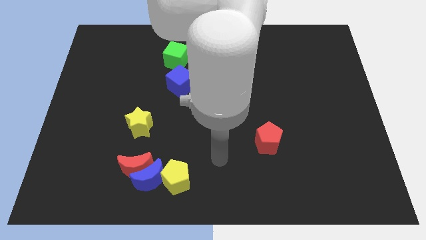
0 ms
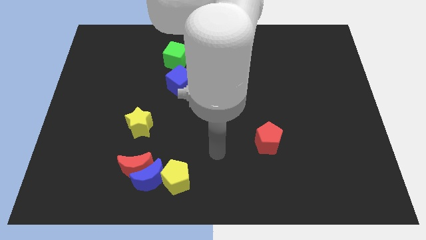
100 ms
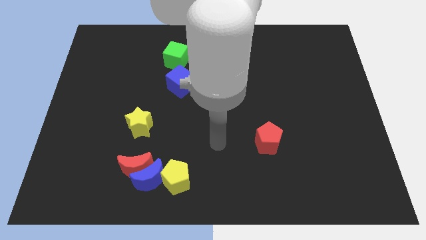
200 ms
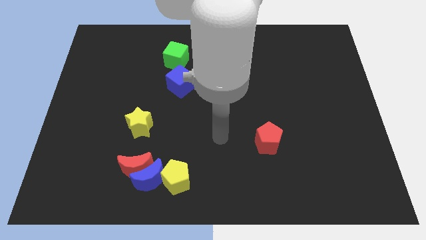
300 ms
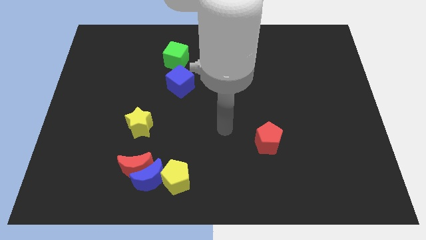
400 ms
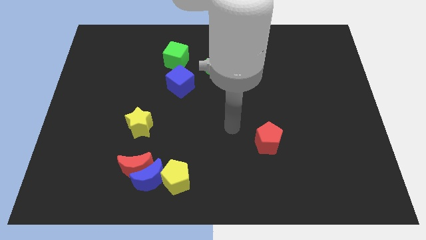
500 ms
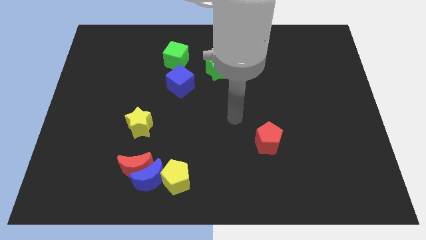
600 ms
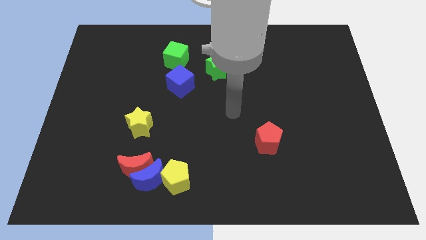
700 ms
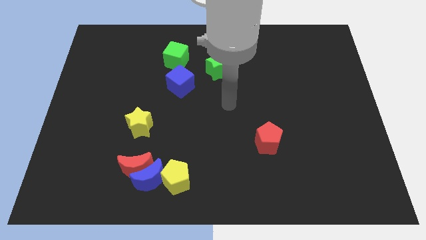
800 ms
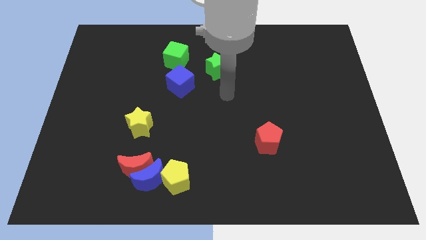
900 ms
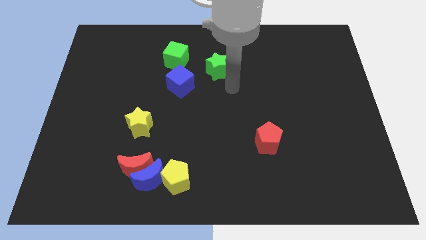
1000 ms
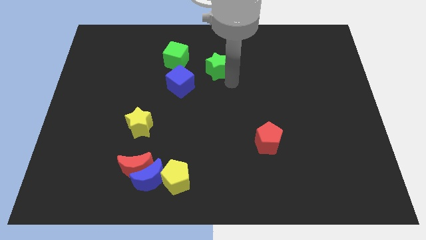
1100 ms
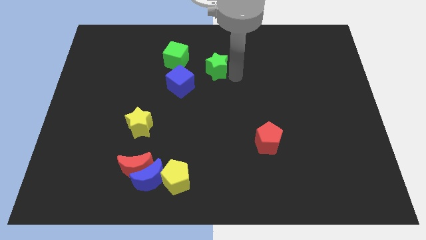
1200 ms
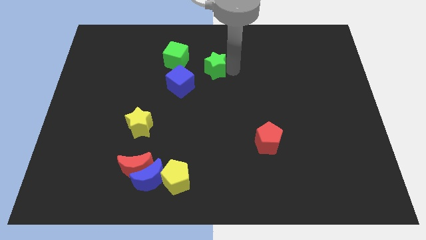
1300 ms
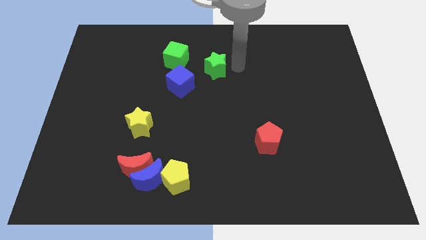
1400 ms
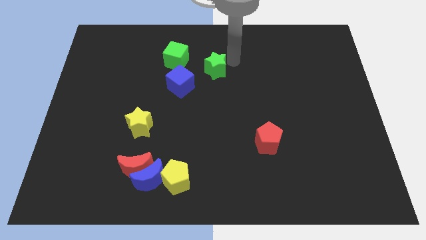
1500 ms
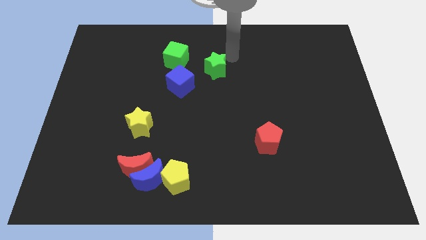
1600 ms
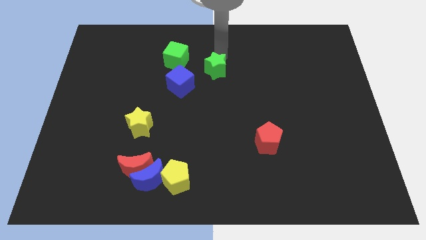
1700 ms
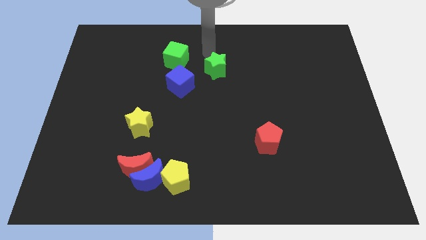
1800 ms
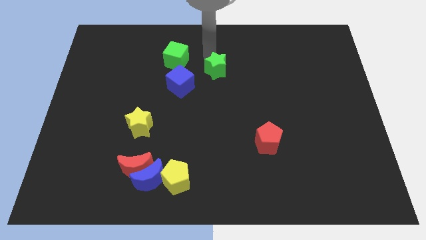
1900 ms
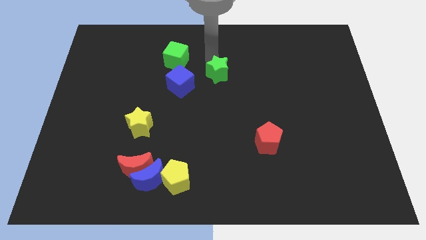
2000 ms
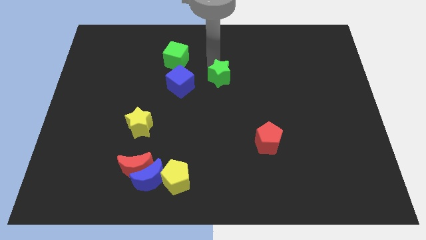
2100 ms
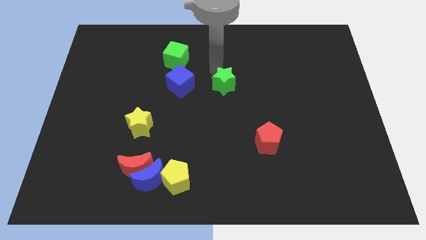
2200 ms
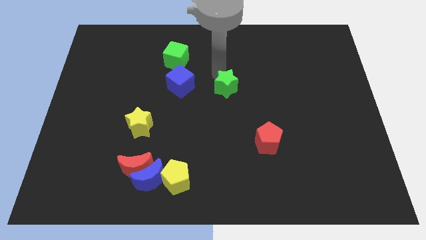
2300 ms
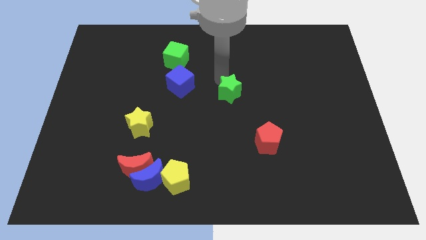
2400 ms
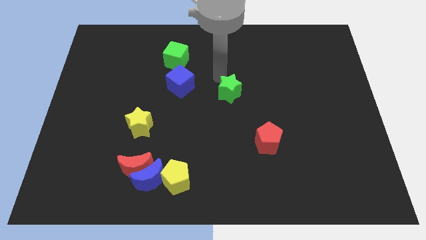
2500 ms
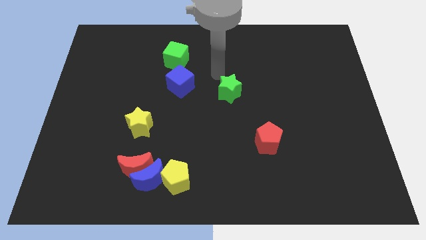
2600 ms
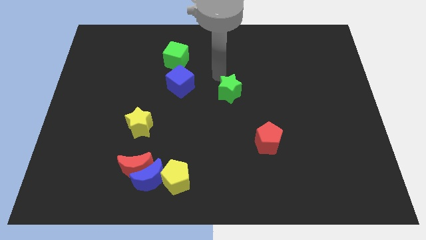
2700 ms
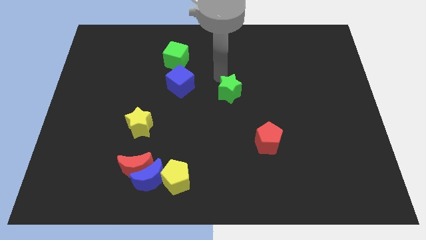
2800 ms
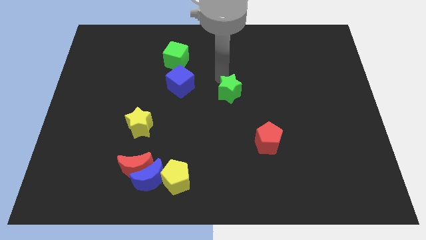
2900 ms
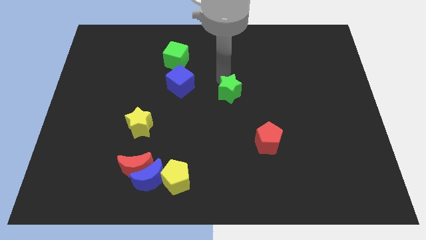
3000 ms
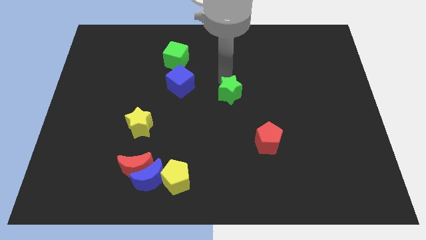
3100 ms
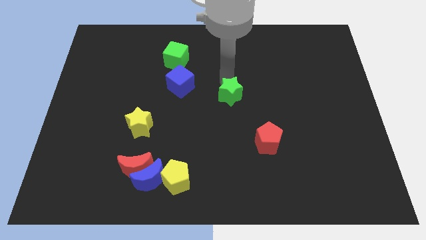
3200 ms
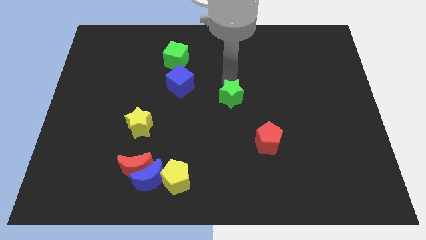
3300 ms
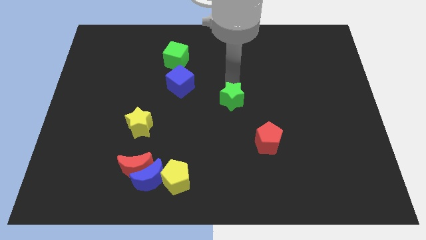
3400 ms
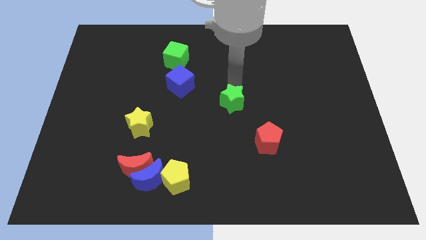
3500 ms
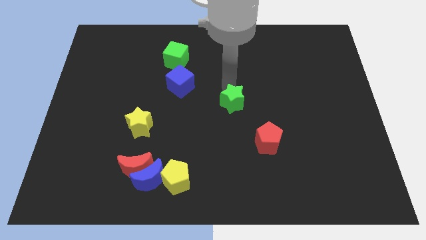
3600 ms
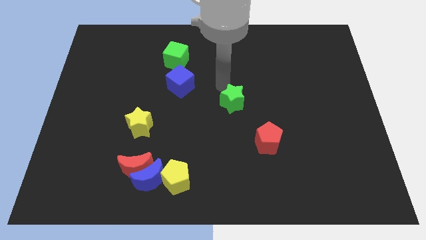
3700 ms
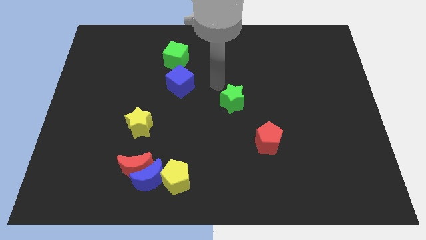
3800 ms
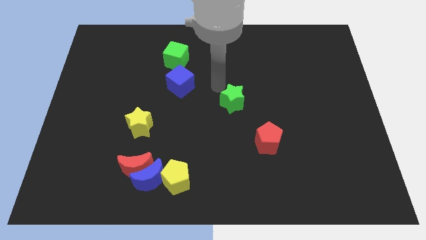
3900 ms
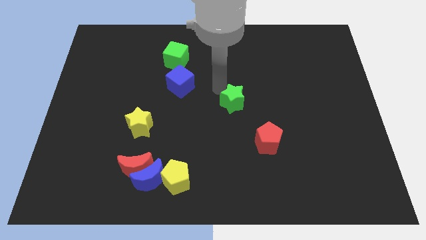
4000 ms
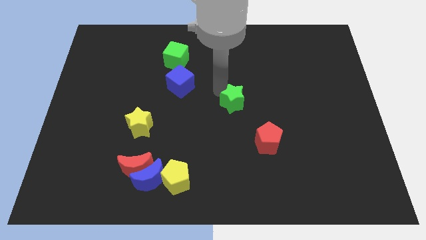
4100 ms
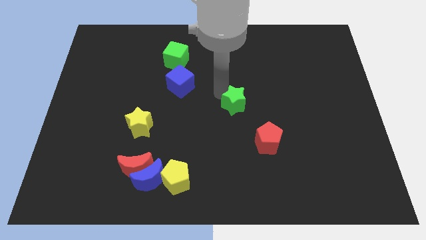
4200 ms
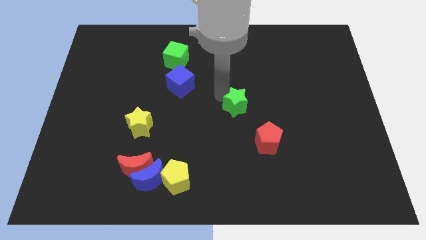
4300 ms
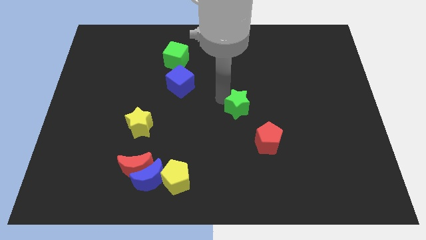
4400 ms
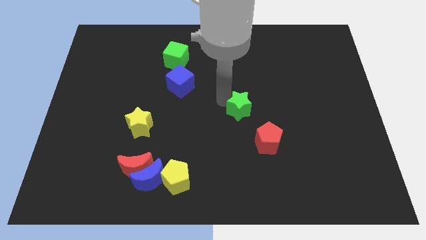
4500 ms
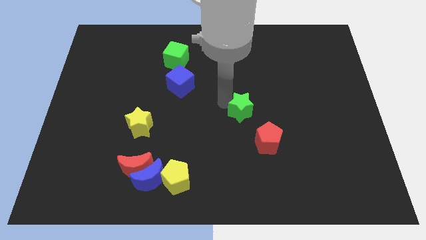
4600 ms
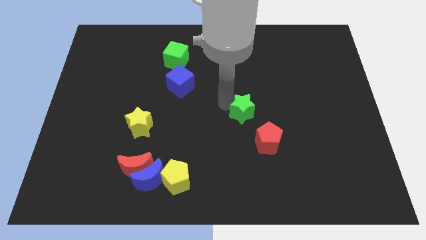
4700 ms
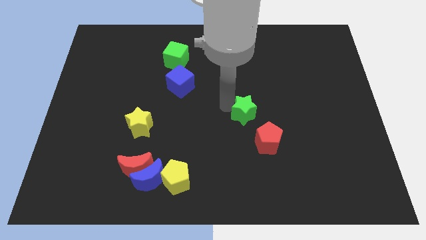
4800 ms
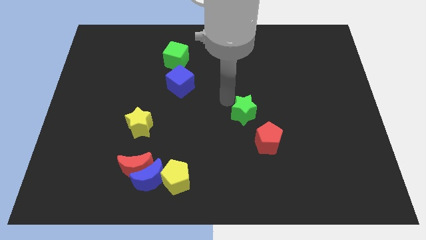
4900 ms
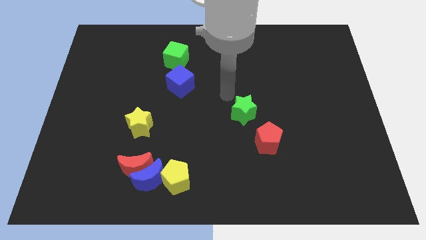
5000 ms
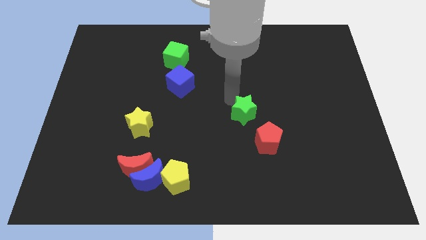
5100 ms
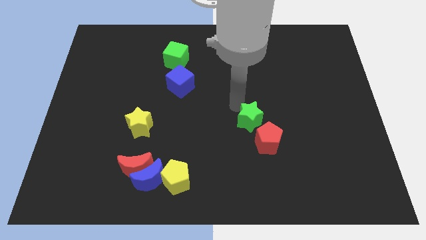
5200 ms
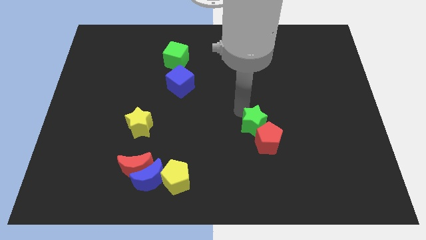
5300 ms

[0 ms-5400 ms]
slide the green star next to the red pentagon
